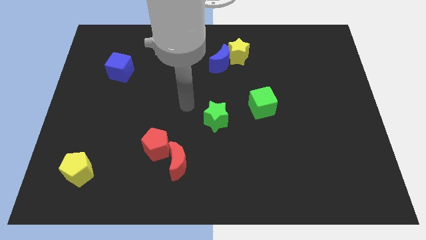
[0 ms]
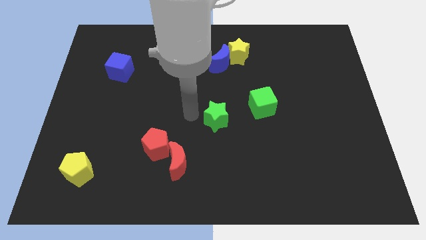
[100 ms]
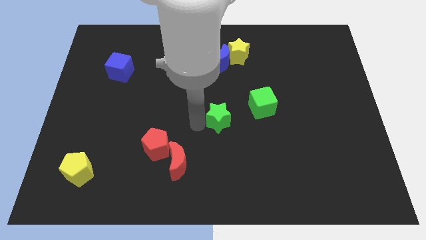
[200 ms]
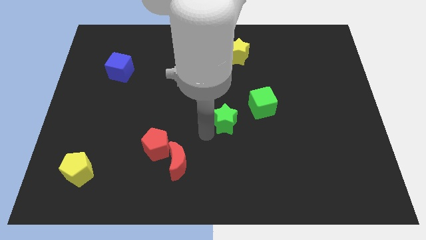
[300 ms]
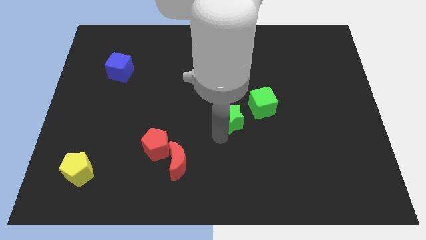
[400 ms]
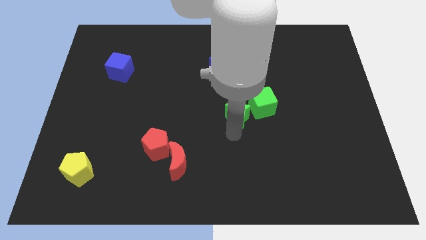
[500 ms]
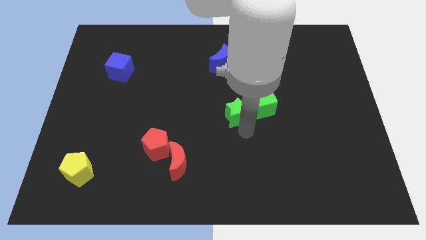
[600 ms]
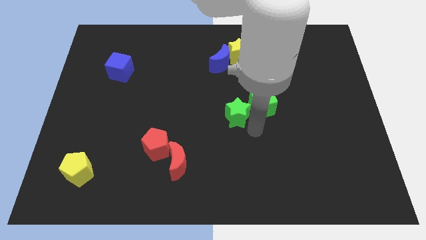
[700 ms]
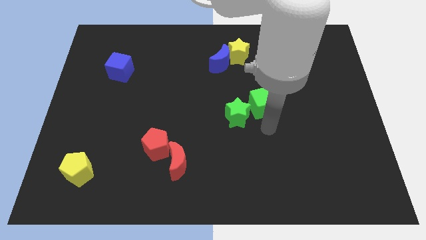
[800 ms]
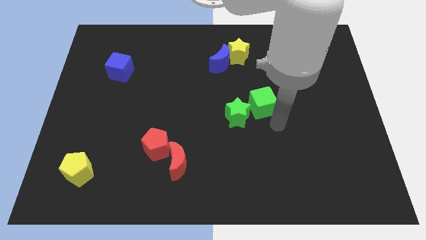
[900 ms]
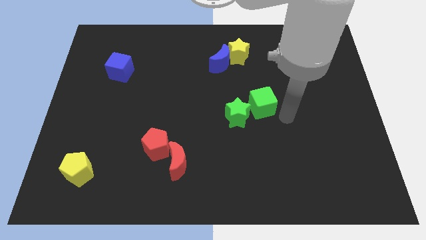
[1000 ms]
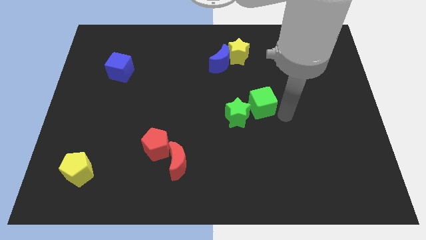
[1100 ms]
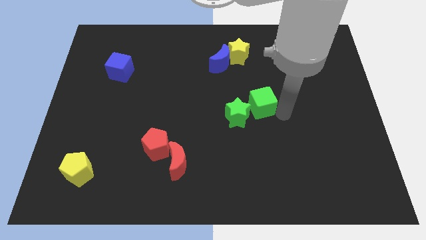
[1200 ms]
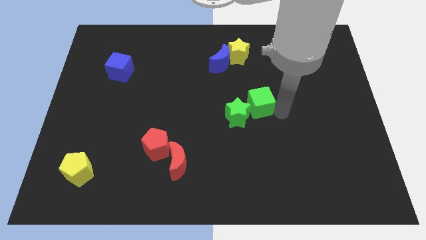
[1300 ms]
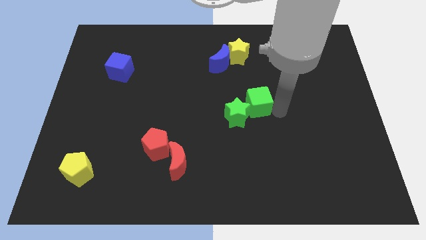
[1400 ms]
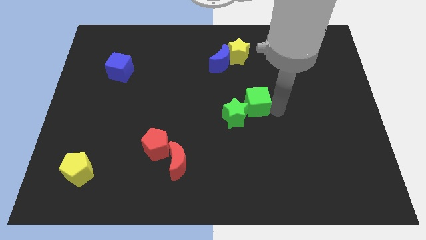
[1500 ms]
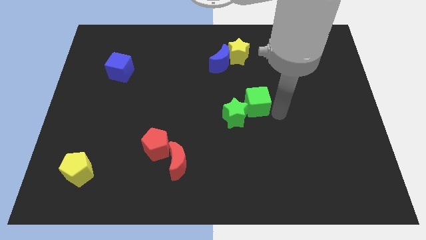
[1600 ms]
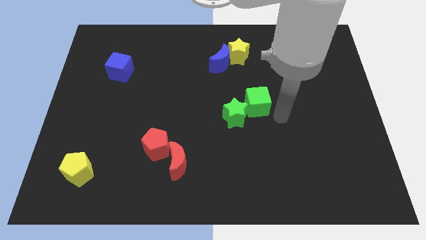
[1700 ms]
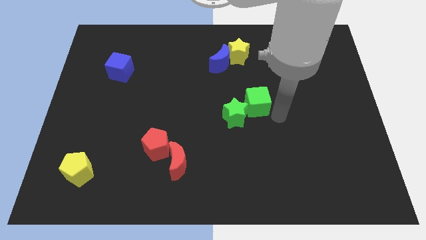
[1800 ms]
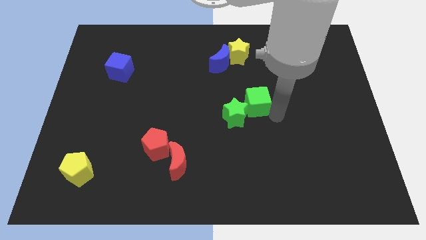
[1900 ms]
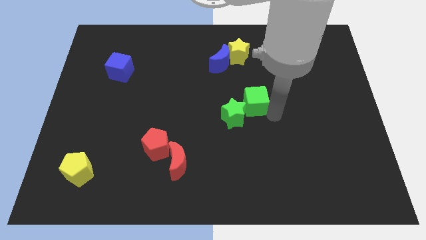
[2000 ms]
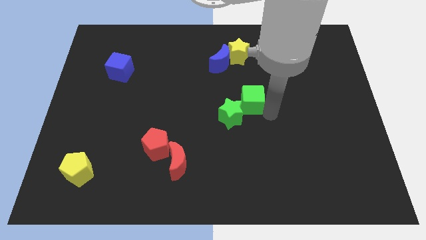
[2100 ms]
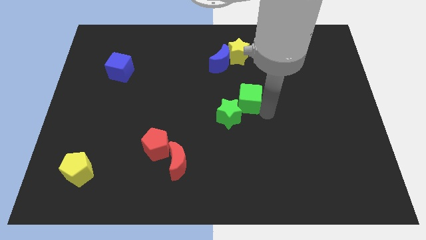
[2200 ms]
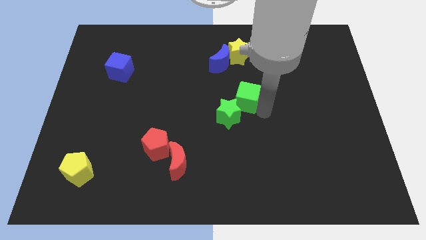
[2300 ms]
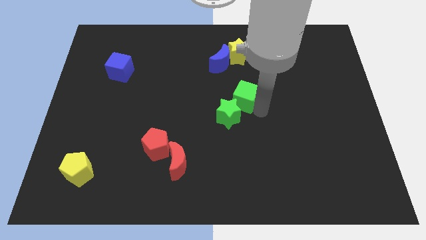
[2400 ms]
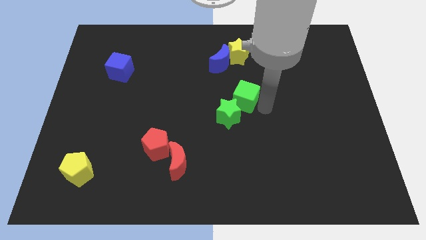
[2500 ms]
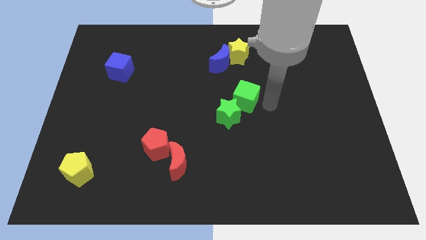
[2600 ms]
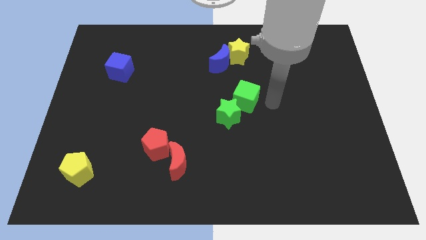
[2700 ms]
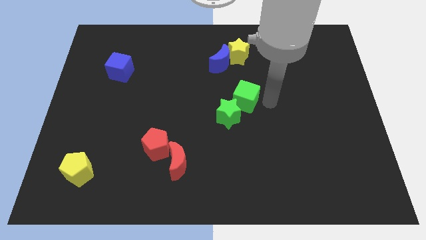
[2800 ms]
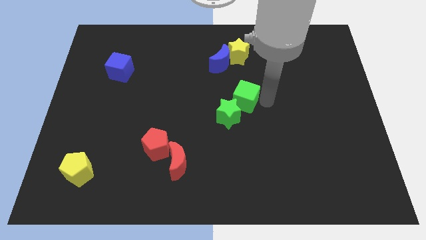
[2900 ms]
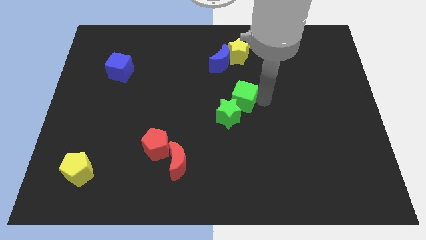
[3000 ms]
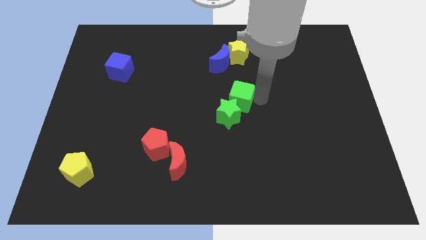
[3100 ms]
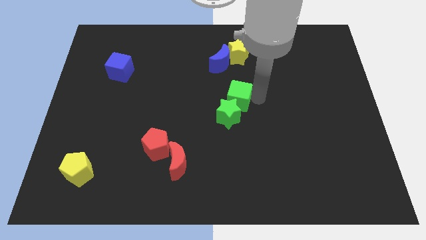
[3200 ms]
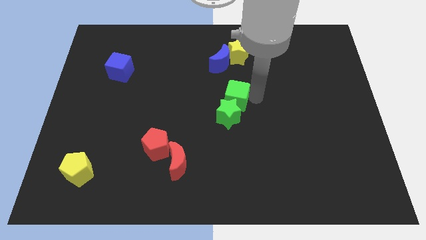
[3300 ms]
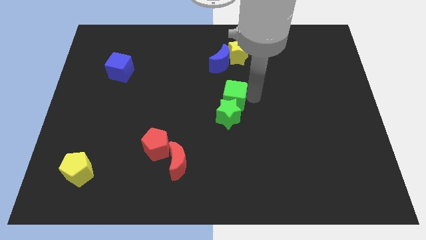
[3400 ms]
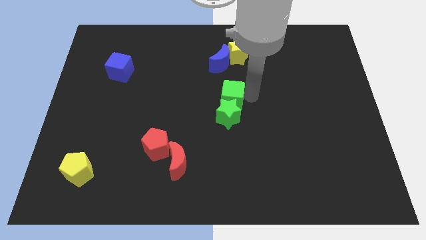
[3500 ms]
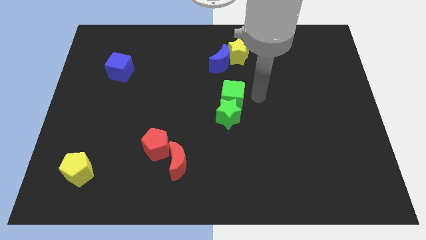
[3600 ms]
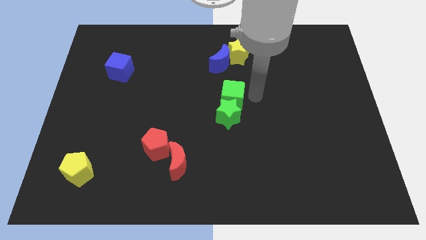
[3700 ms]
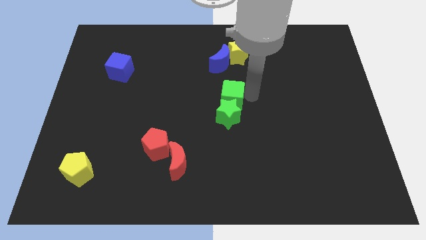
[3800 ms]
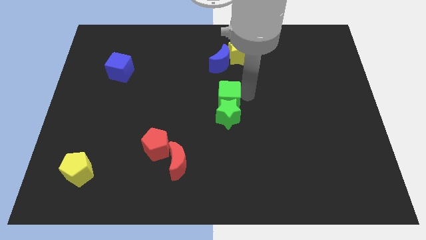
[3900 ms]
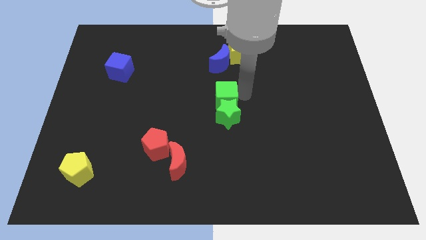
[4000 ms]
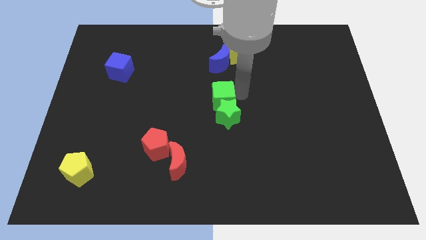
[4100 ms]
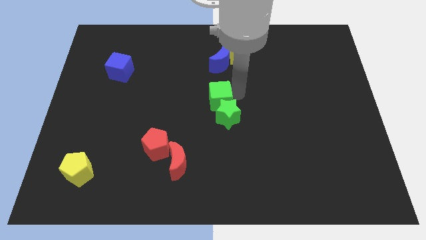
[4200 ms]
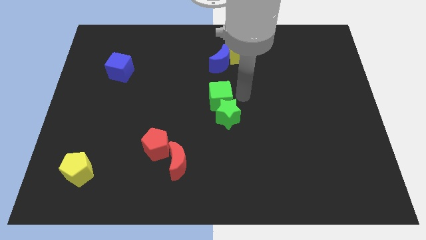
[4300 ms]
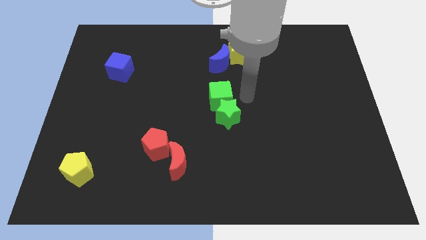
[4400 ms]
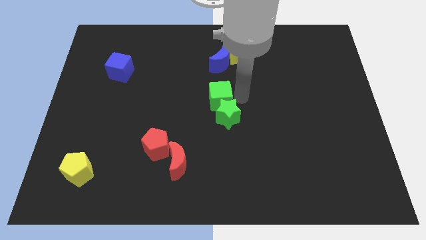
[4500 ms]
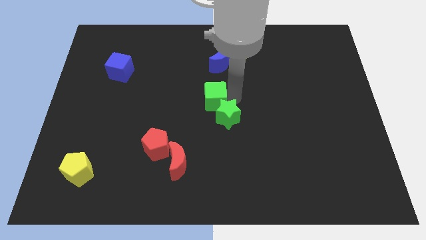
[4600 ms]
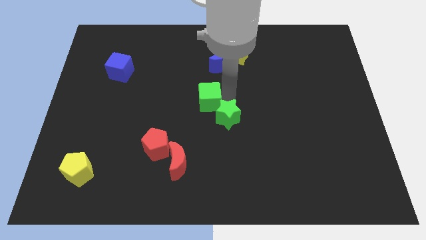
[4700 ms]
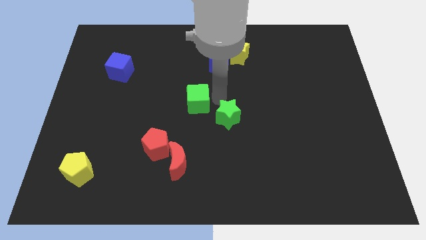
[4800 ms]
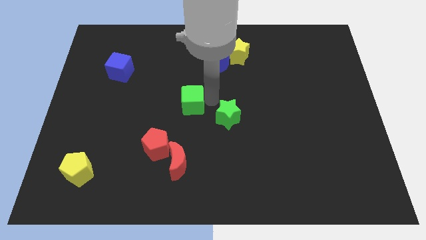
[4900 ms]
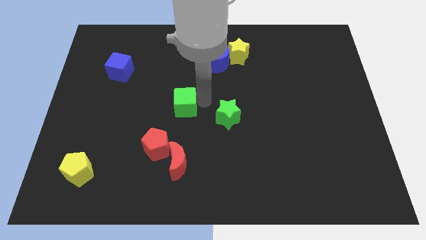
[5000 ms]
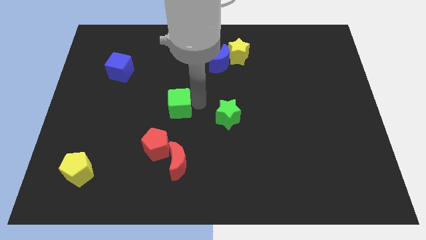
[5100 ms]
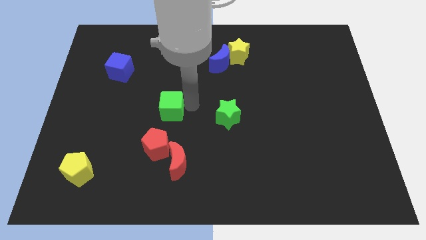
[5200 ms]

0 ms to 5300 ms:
slide the green cube left

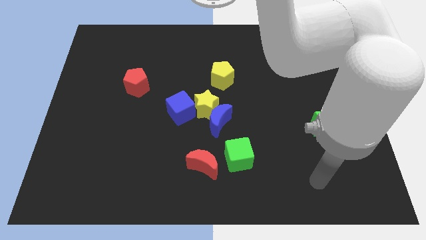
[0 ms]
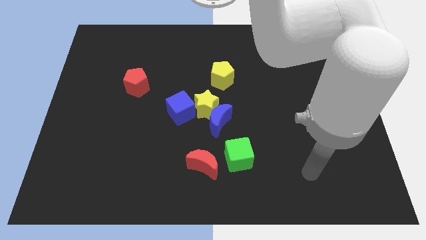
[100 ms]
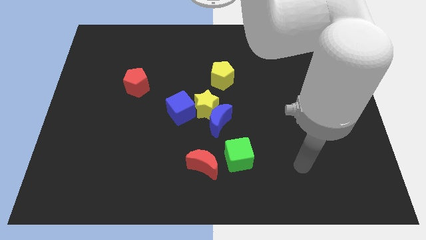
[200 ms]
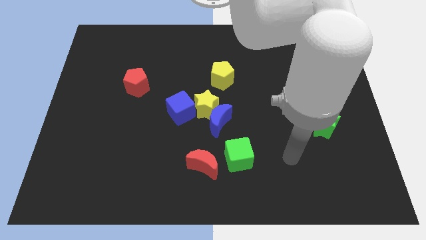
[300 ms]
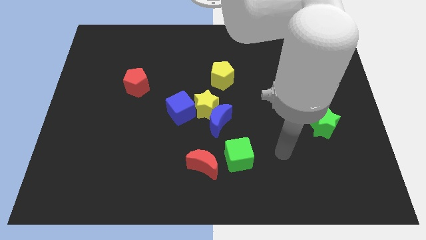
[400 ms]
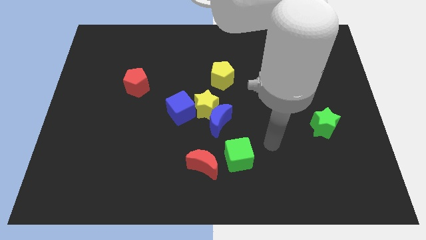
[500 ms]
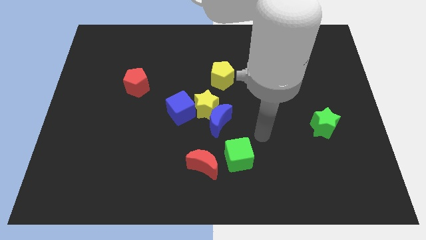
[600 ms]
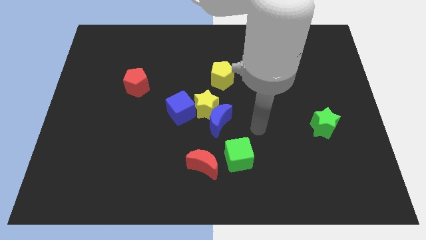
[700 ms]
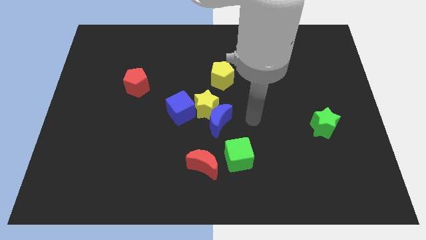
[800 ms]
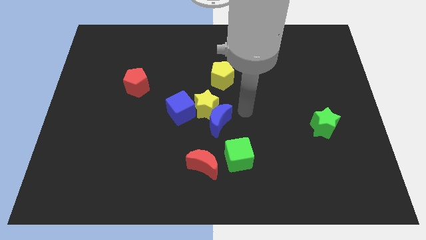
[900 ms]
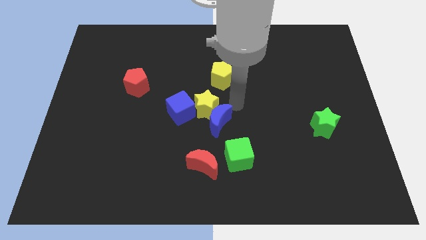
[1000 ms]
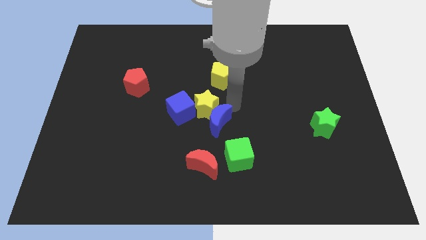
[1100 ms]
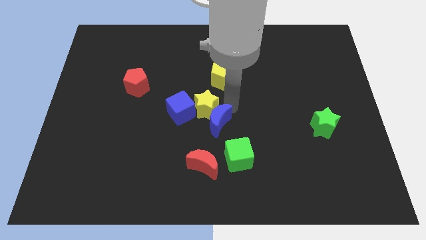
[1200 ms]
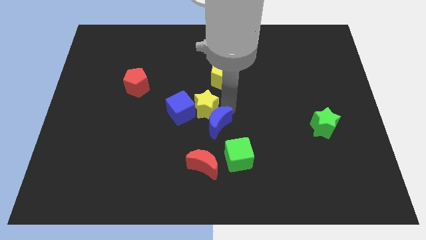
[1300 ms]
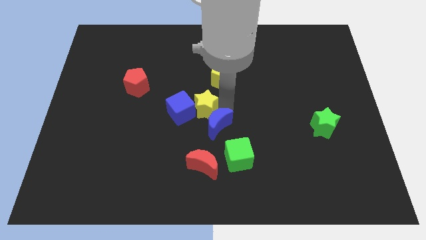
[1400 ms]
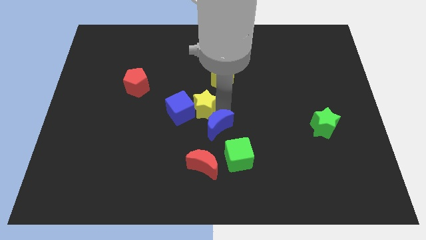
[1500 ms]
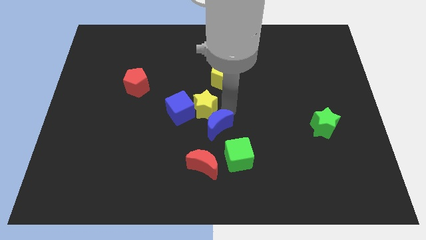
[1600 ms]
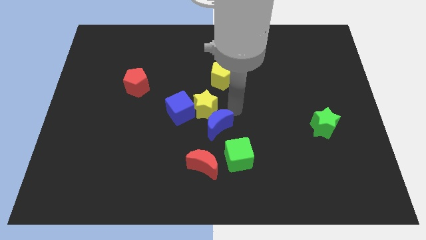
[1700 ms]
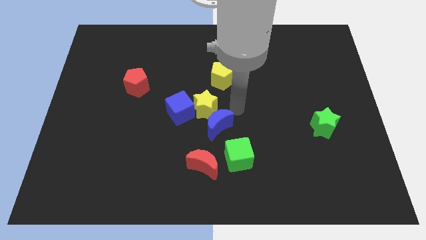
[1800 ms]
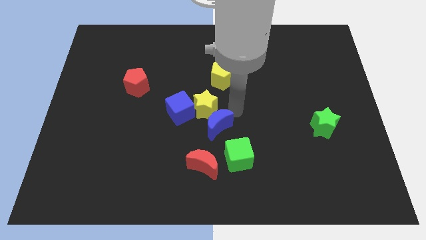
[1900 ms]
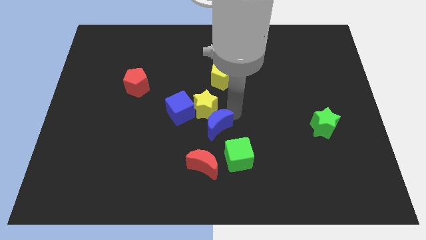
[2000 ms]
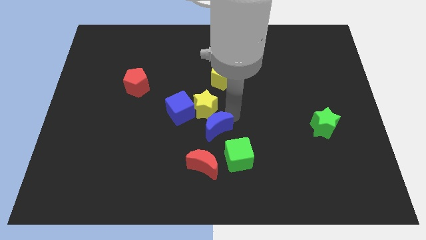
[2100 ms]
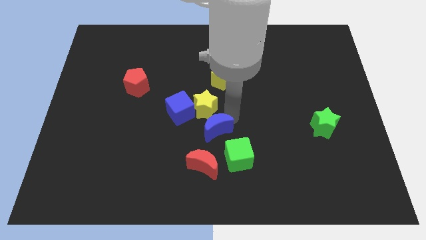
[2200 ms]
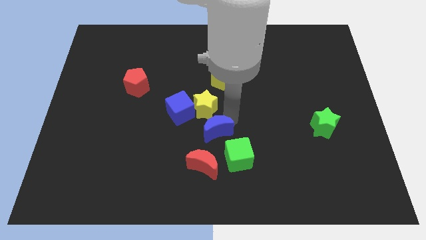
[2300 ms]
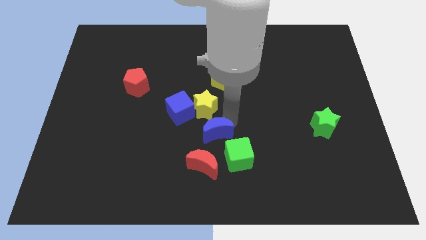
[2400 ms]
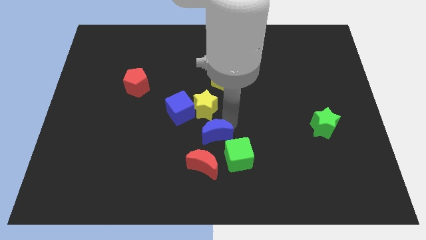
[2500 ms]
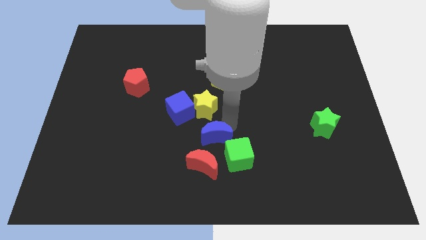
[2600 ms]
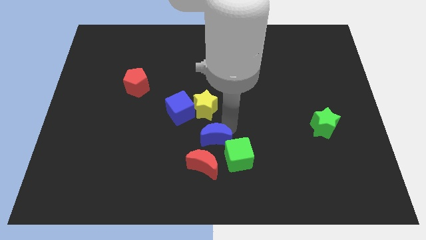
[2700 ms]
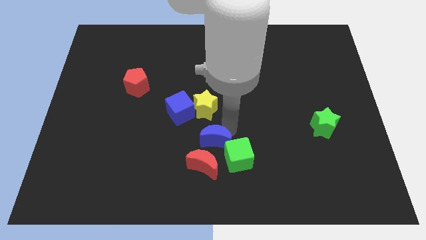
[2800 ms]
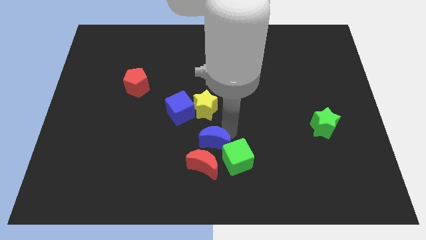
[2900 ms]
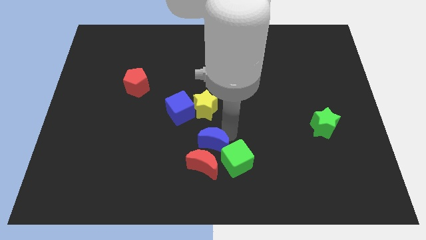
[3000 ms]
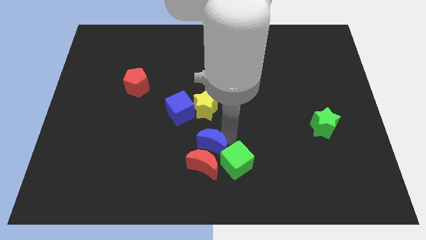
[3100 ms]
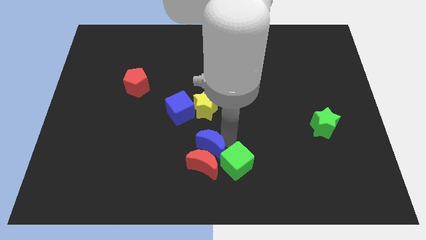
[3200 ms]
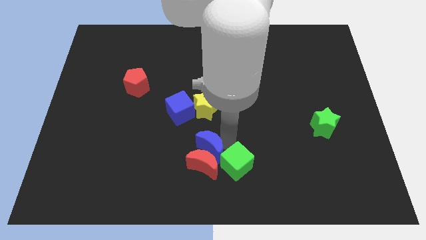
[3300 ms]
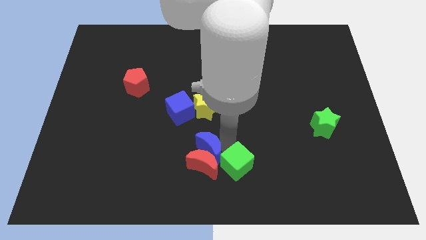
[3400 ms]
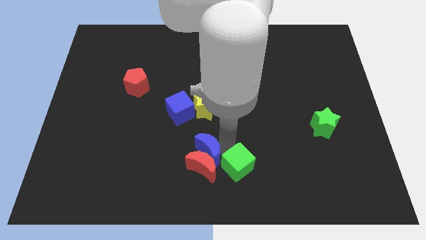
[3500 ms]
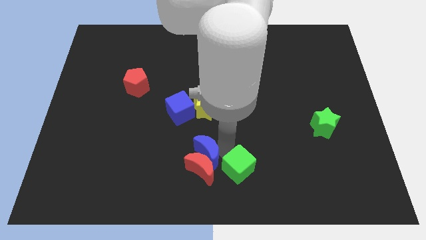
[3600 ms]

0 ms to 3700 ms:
slide the blue moon downwards and left diagonally slightly
